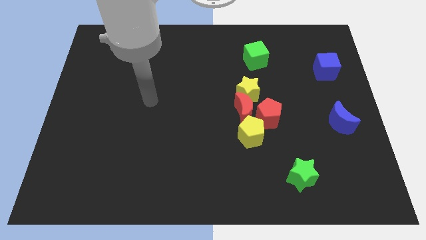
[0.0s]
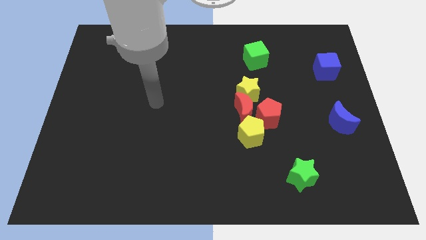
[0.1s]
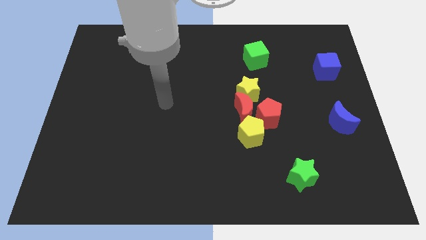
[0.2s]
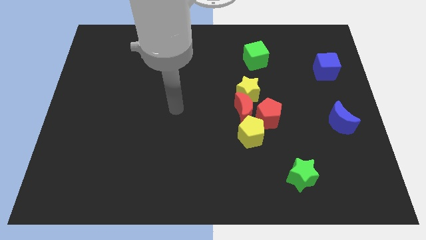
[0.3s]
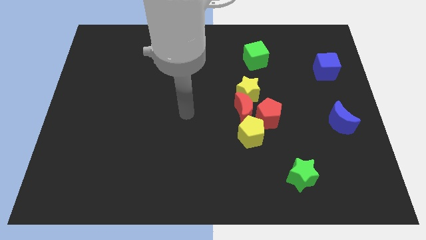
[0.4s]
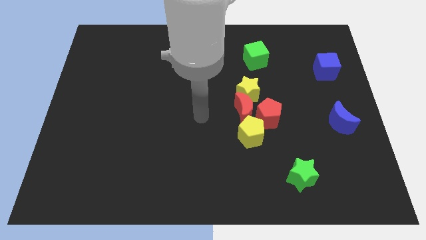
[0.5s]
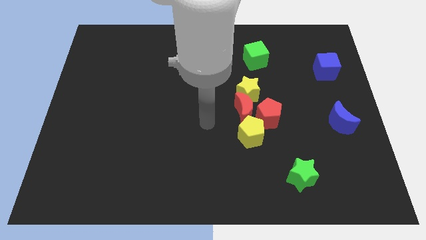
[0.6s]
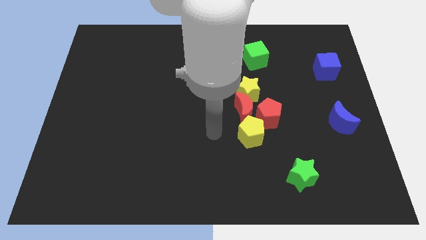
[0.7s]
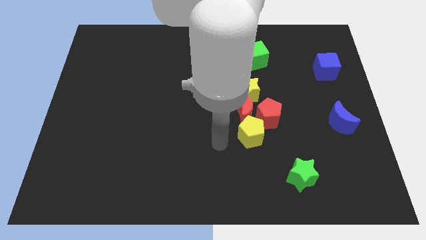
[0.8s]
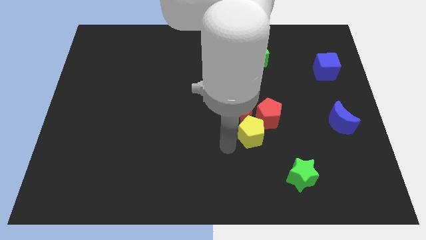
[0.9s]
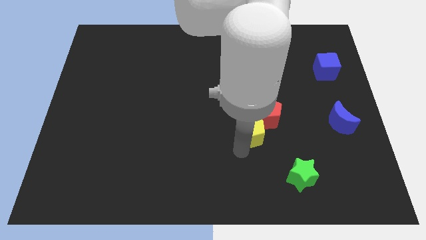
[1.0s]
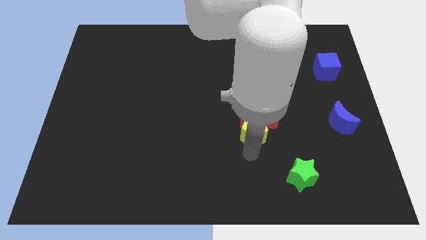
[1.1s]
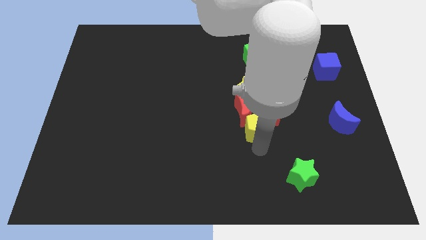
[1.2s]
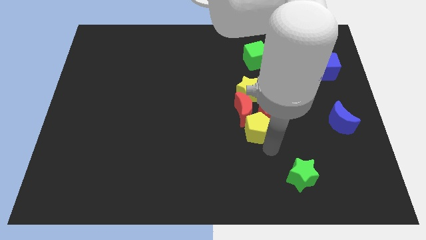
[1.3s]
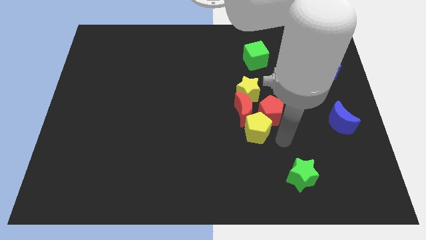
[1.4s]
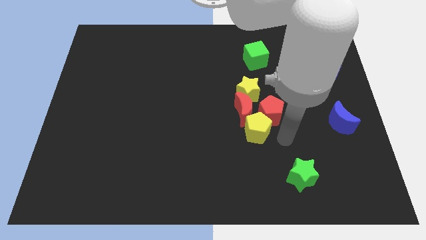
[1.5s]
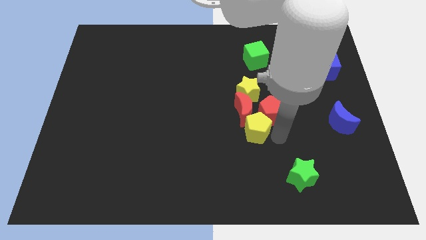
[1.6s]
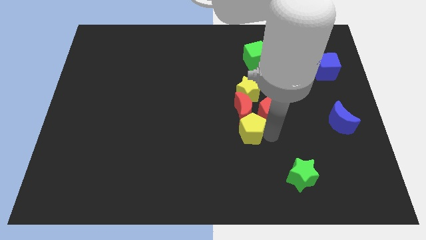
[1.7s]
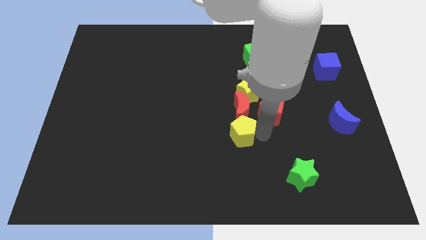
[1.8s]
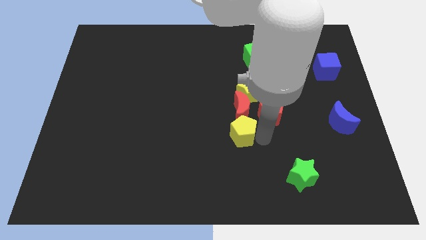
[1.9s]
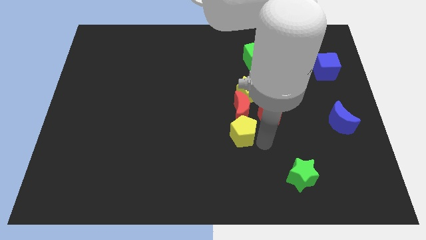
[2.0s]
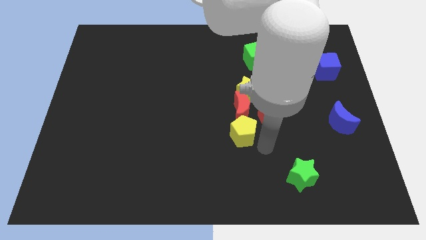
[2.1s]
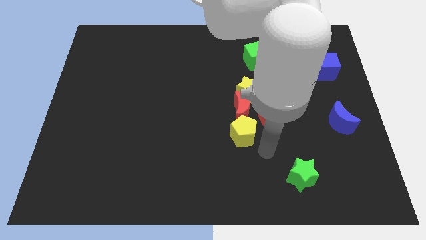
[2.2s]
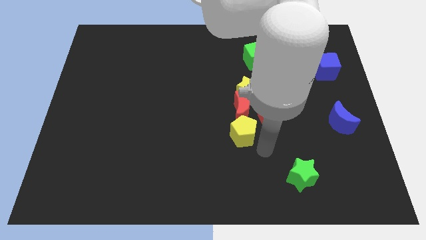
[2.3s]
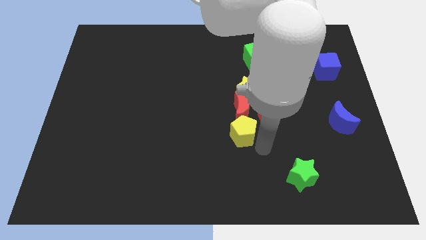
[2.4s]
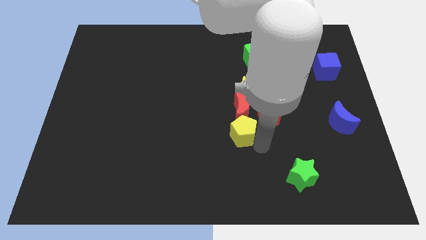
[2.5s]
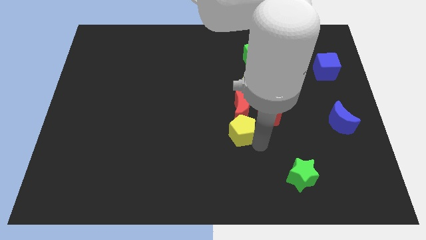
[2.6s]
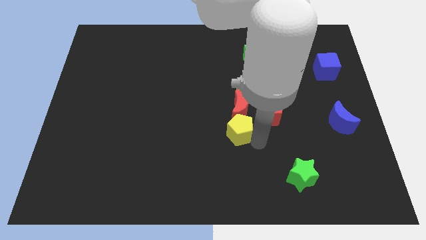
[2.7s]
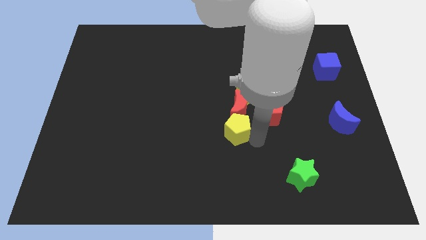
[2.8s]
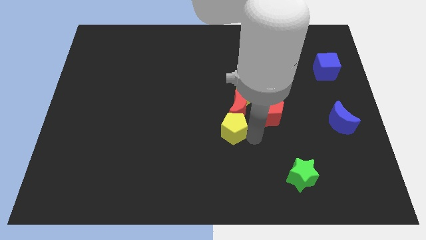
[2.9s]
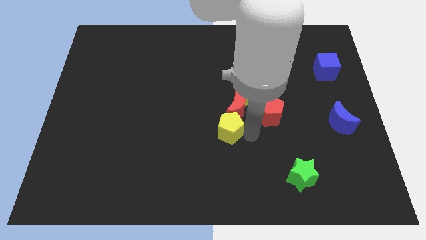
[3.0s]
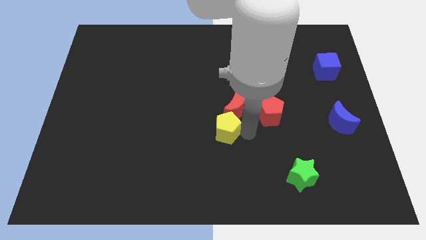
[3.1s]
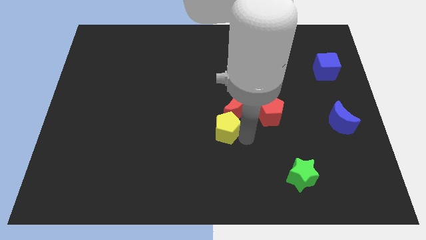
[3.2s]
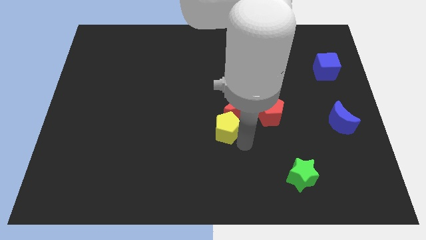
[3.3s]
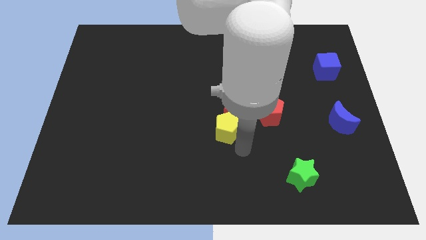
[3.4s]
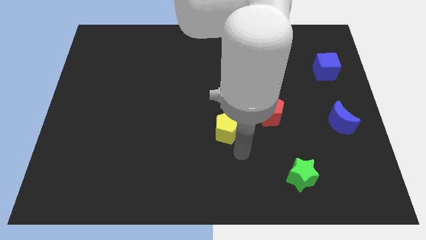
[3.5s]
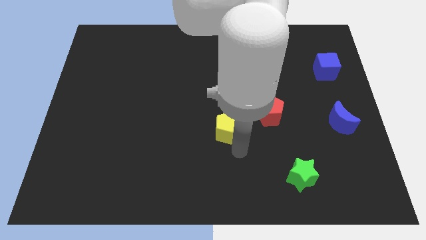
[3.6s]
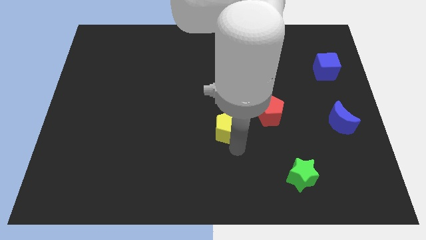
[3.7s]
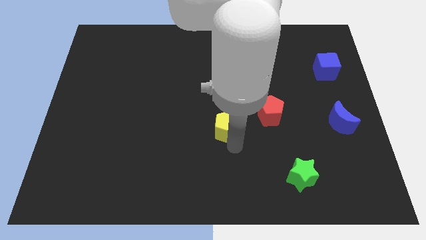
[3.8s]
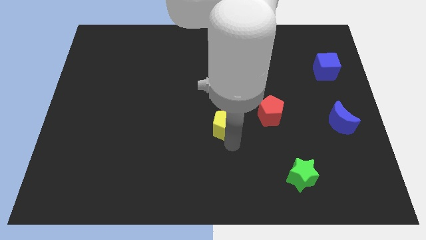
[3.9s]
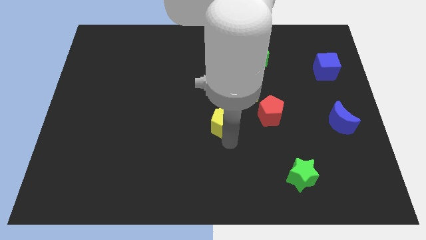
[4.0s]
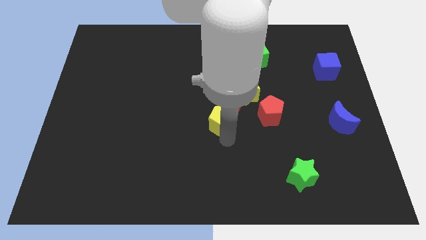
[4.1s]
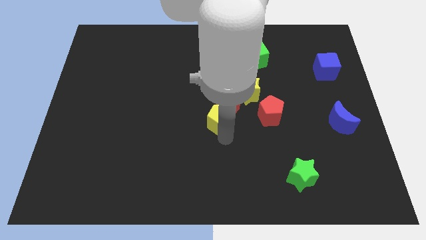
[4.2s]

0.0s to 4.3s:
slide the yellow pentagon up and left diagonally slightly

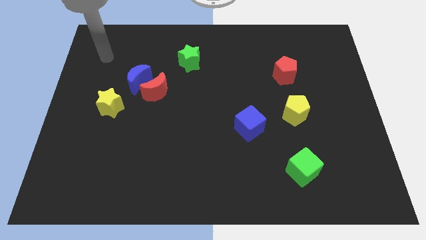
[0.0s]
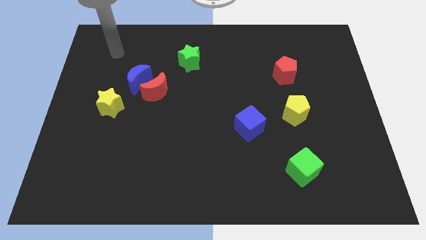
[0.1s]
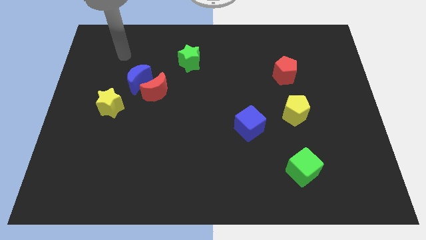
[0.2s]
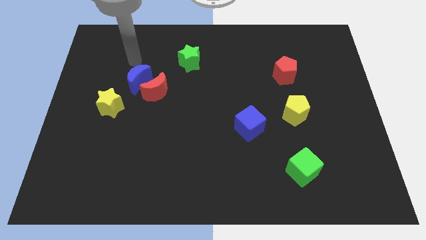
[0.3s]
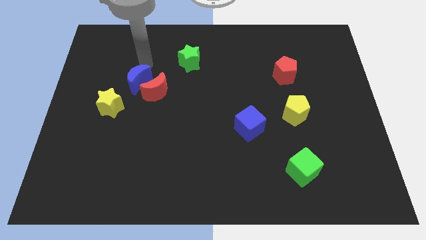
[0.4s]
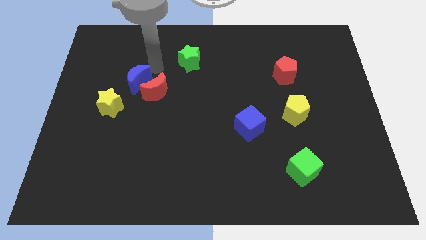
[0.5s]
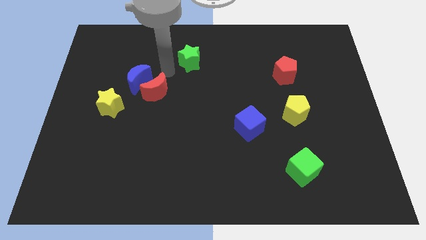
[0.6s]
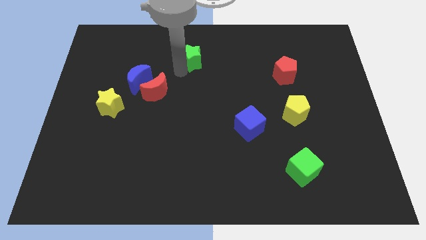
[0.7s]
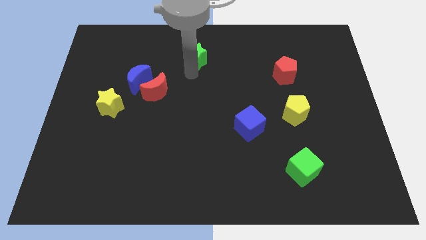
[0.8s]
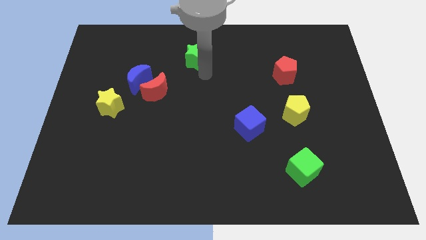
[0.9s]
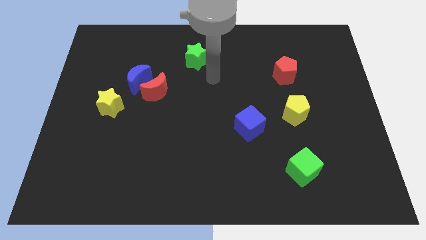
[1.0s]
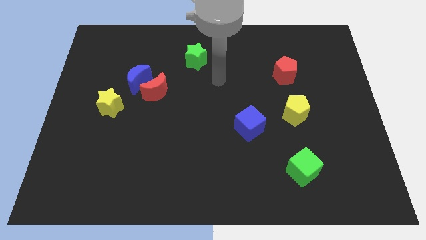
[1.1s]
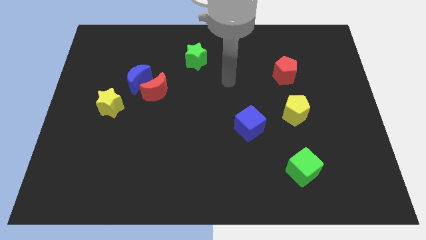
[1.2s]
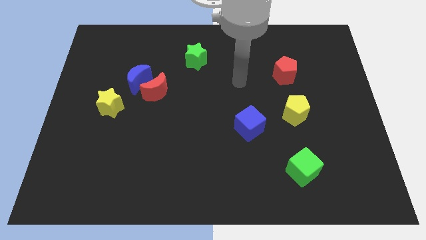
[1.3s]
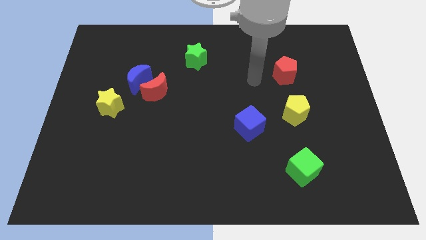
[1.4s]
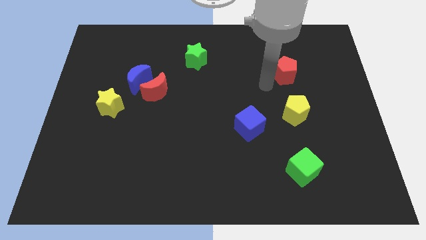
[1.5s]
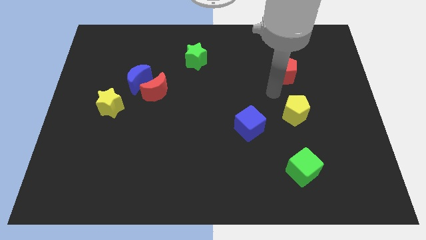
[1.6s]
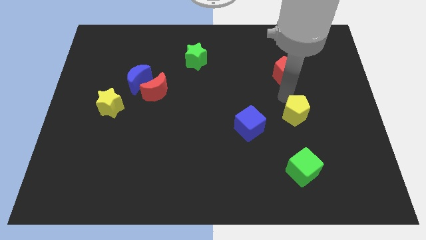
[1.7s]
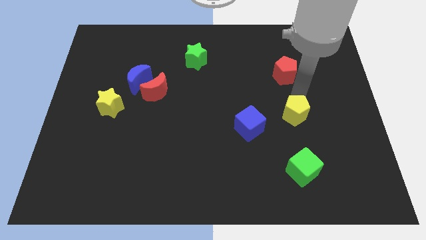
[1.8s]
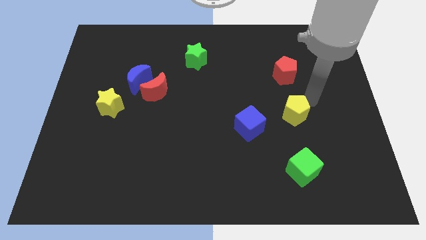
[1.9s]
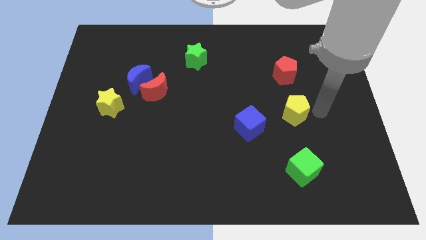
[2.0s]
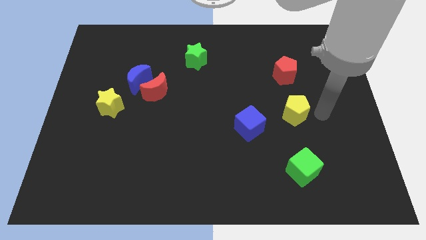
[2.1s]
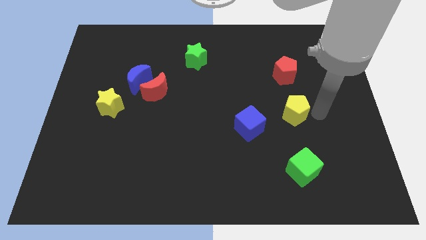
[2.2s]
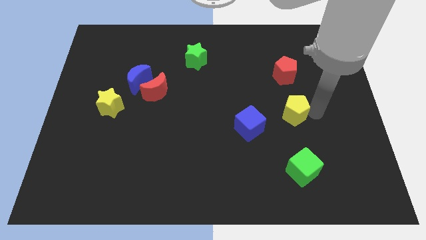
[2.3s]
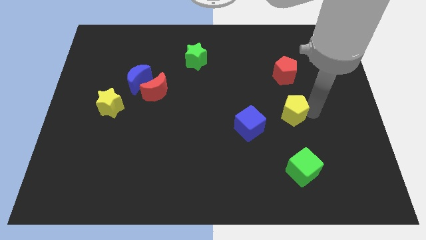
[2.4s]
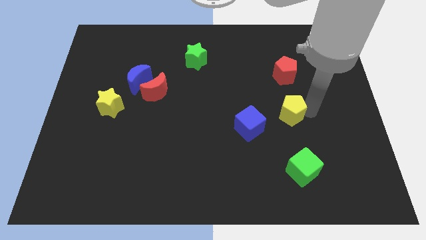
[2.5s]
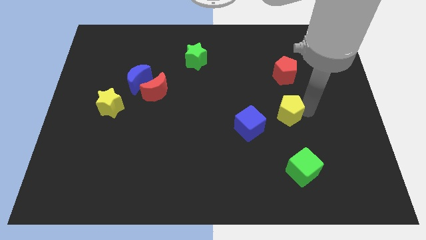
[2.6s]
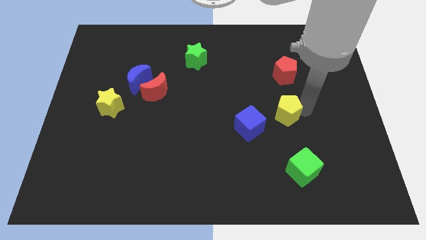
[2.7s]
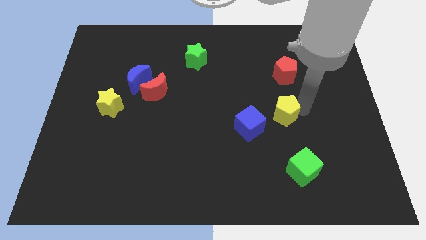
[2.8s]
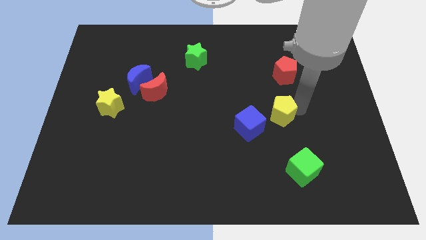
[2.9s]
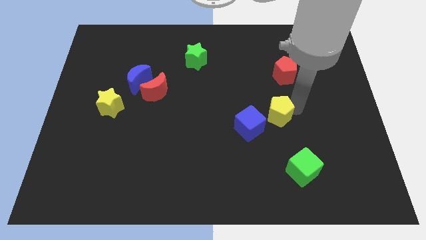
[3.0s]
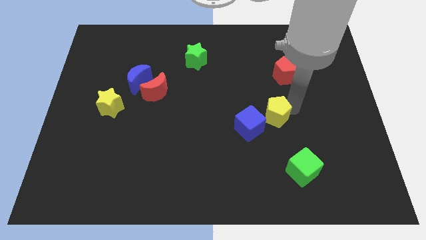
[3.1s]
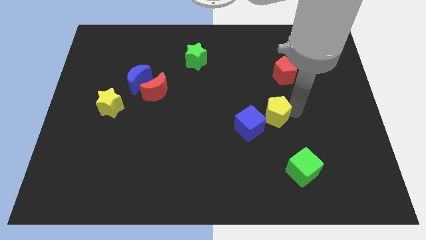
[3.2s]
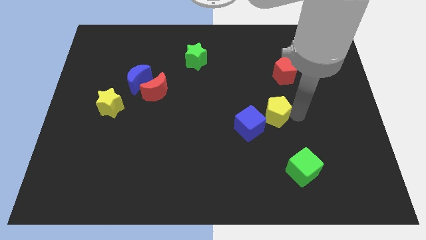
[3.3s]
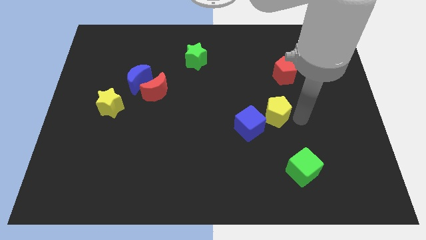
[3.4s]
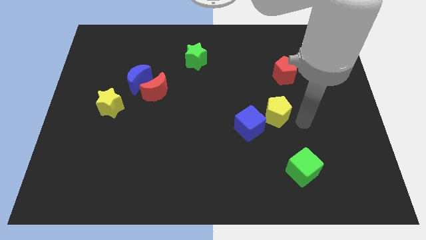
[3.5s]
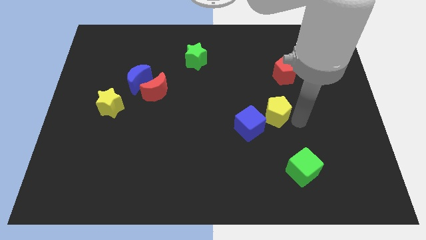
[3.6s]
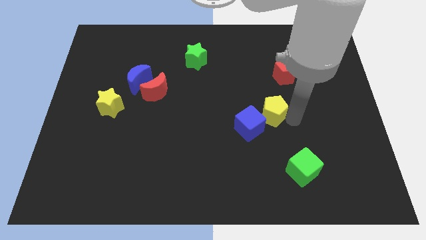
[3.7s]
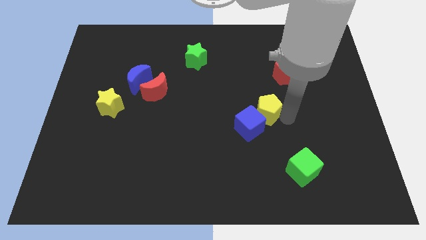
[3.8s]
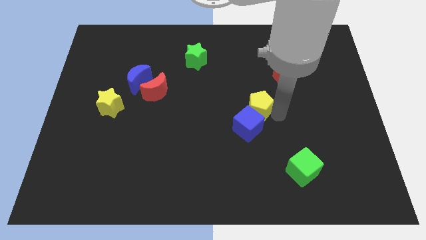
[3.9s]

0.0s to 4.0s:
slide the yellow pentagon to the left a bit
